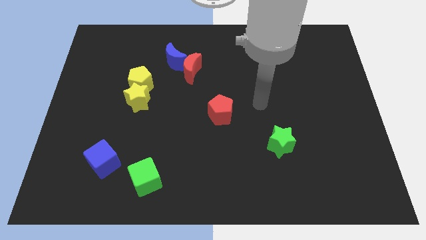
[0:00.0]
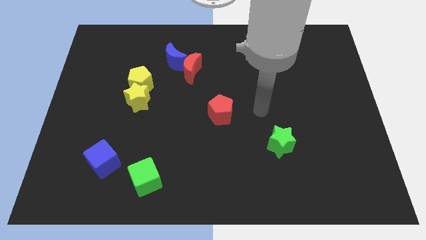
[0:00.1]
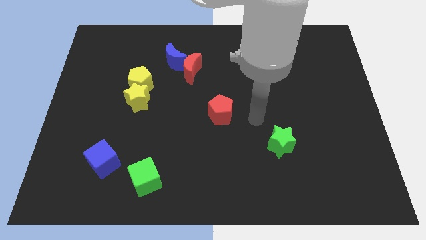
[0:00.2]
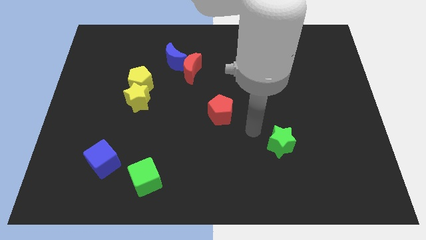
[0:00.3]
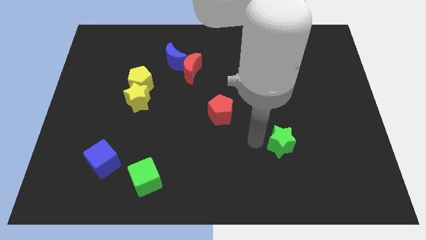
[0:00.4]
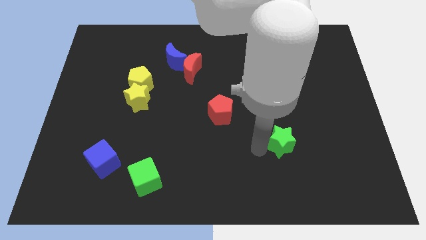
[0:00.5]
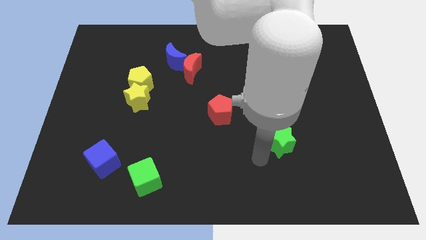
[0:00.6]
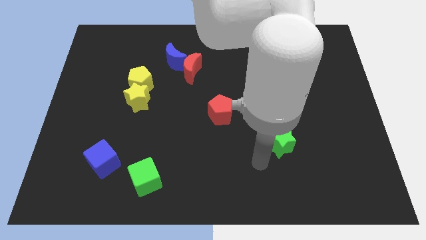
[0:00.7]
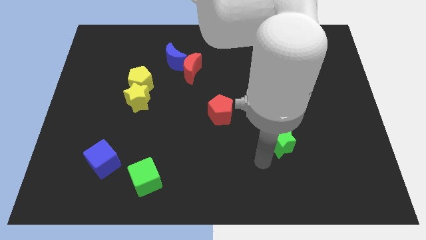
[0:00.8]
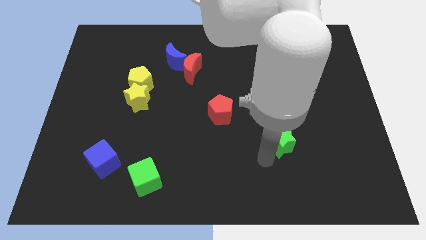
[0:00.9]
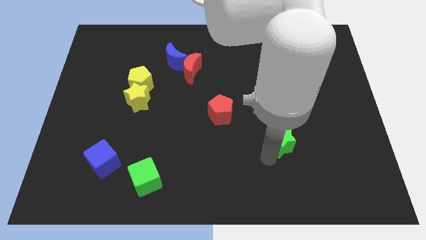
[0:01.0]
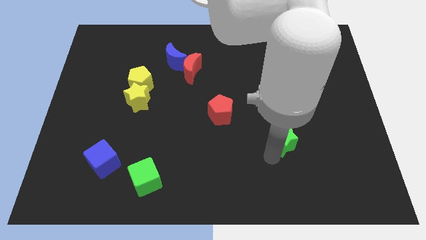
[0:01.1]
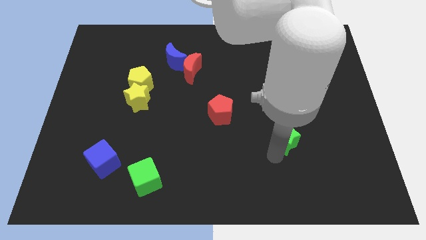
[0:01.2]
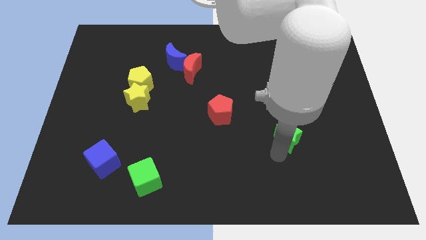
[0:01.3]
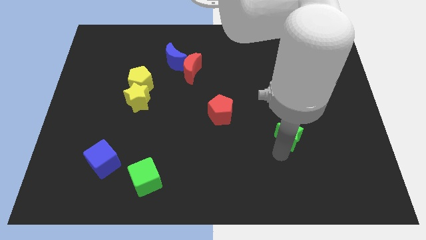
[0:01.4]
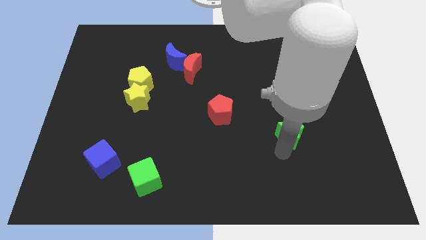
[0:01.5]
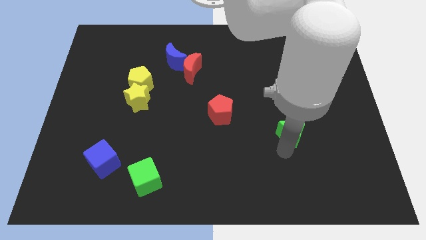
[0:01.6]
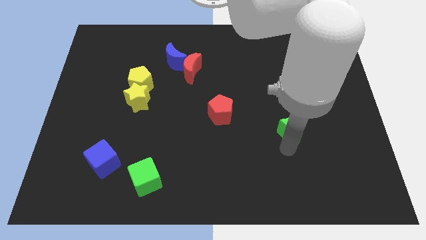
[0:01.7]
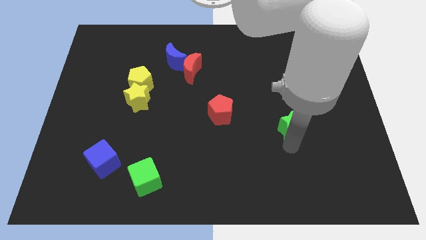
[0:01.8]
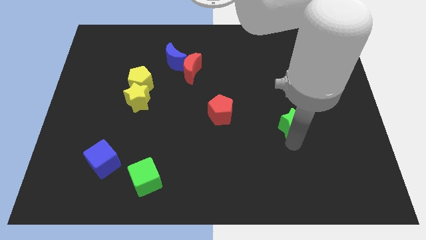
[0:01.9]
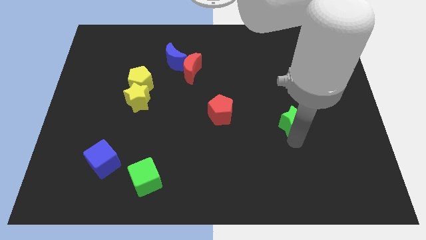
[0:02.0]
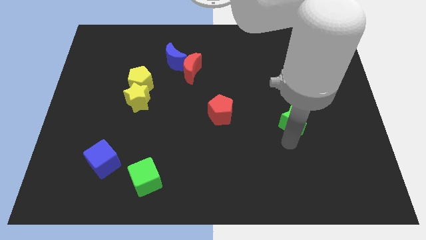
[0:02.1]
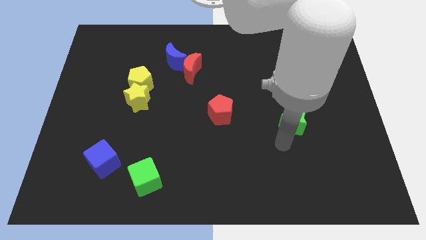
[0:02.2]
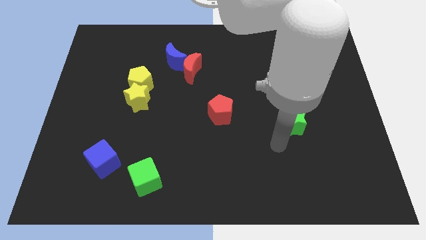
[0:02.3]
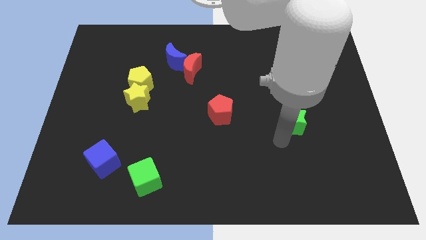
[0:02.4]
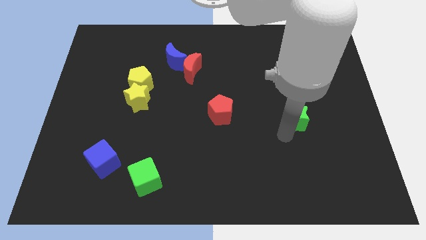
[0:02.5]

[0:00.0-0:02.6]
move the green star upwards and to the right diagonally somewhat

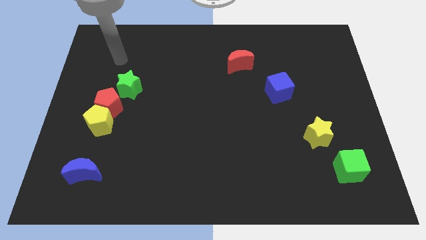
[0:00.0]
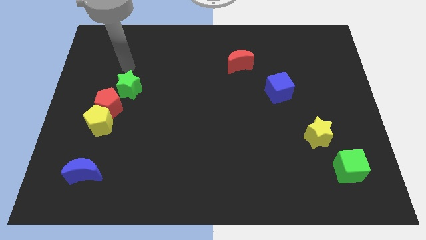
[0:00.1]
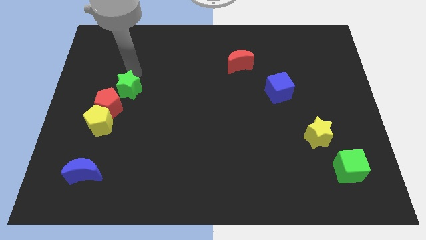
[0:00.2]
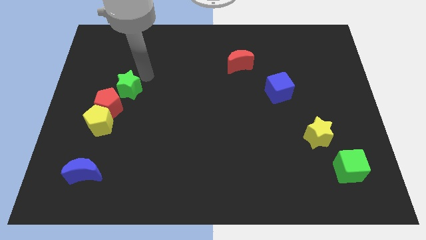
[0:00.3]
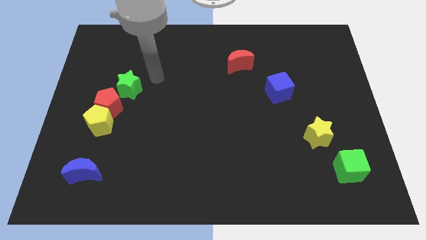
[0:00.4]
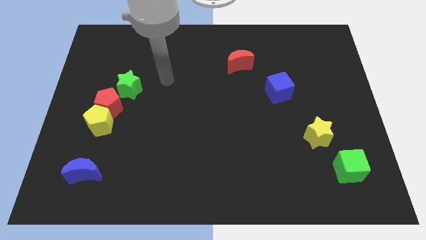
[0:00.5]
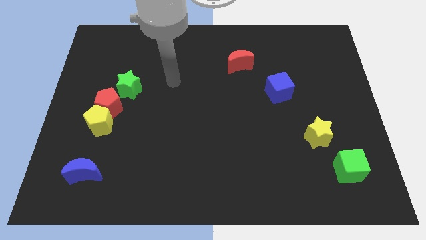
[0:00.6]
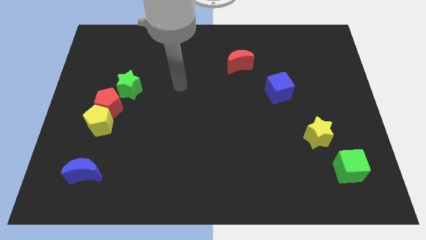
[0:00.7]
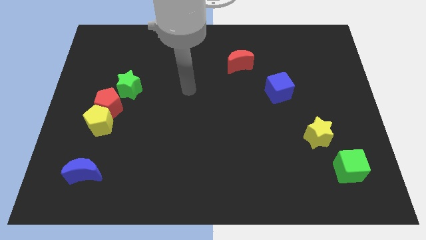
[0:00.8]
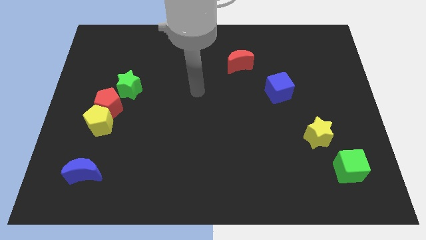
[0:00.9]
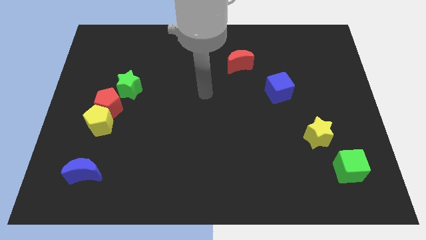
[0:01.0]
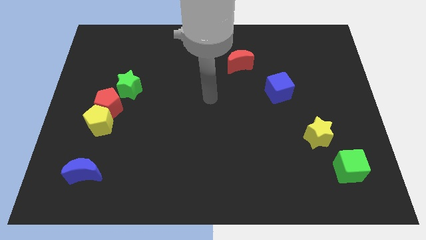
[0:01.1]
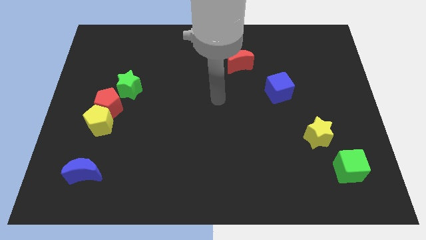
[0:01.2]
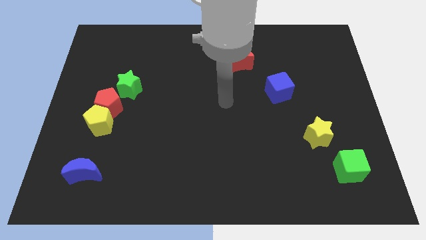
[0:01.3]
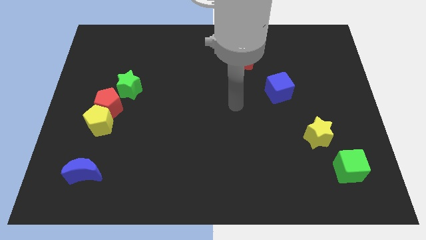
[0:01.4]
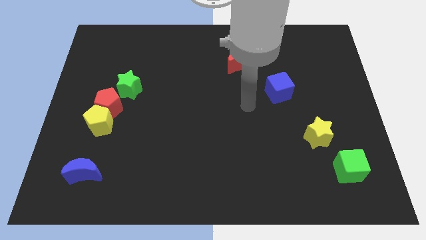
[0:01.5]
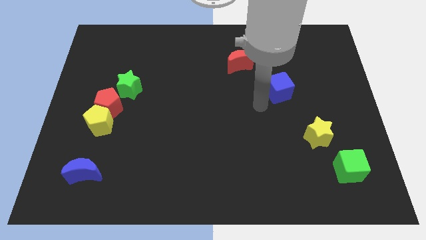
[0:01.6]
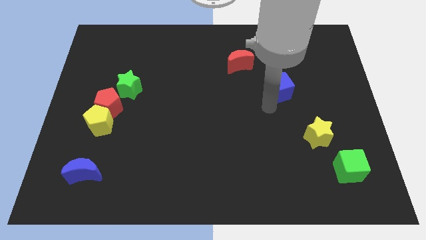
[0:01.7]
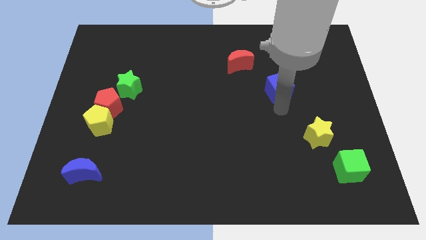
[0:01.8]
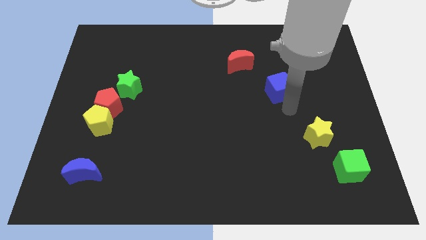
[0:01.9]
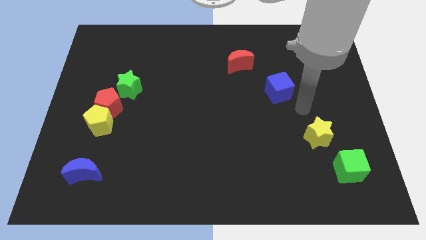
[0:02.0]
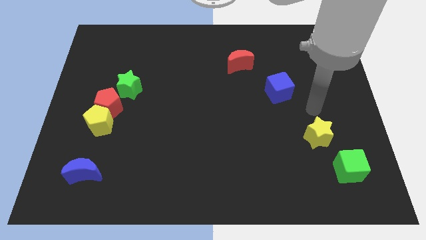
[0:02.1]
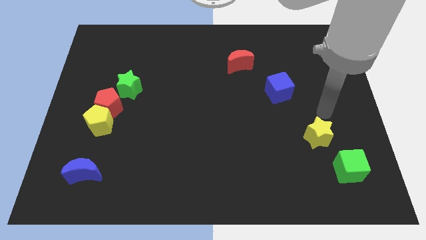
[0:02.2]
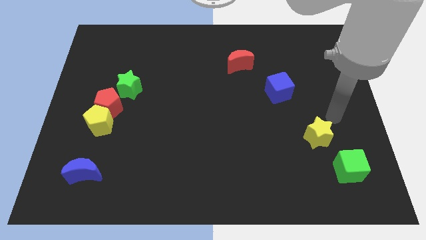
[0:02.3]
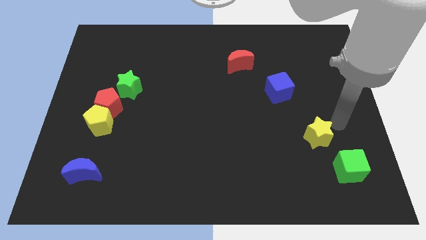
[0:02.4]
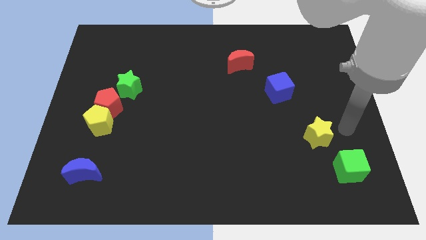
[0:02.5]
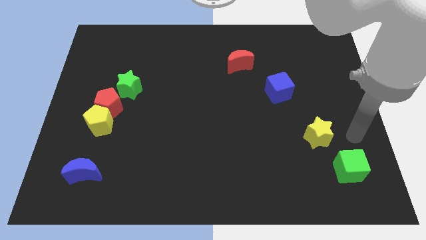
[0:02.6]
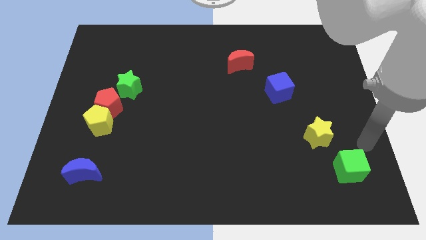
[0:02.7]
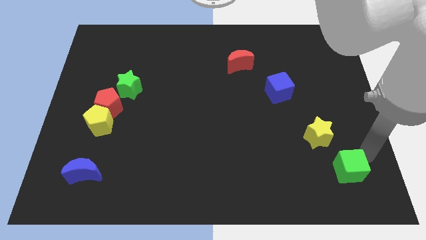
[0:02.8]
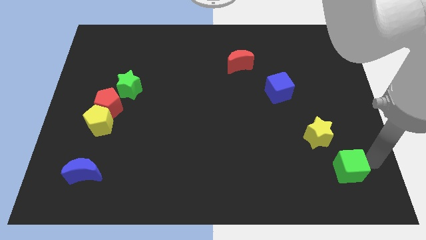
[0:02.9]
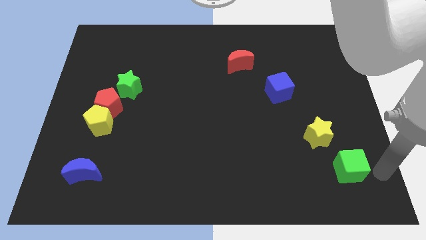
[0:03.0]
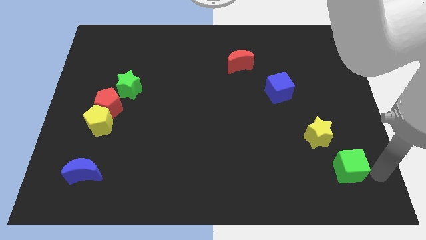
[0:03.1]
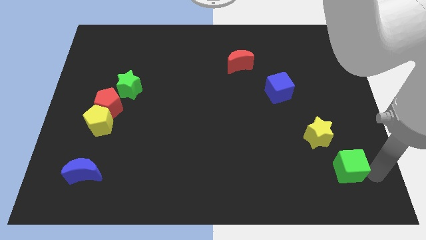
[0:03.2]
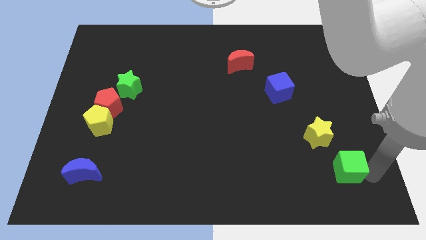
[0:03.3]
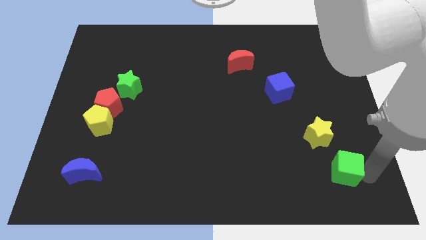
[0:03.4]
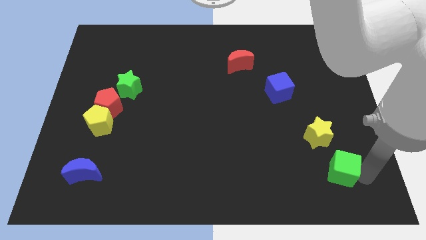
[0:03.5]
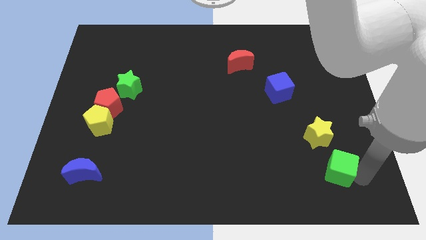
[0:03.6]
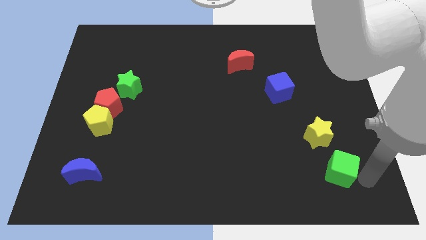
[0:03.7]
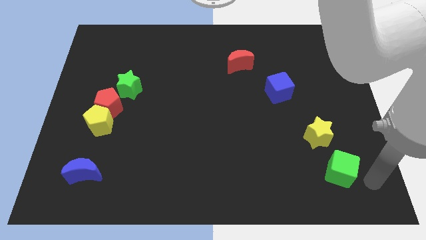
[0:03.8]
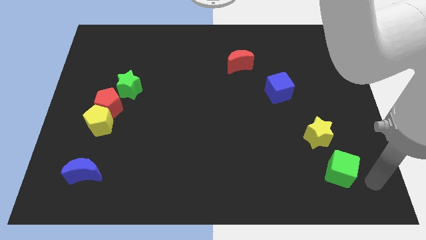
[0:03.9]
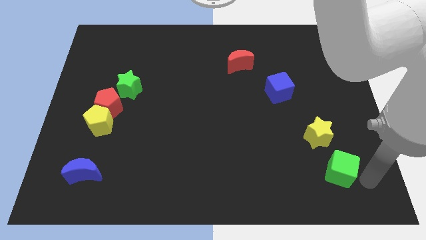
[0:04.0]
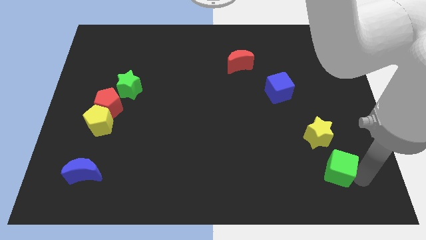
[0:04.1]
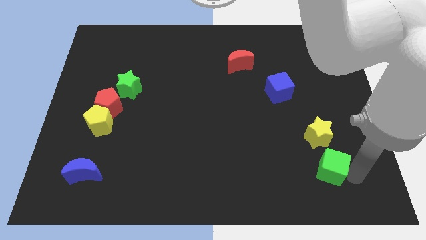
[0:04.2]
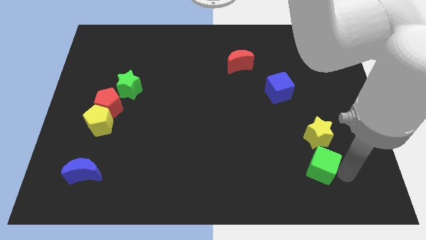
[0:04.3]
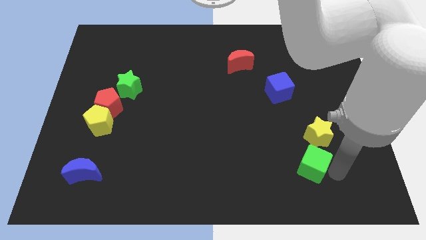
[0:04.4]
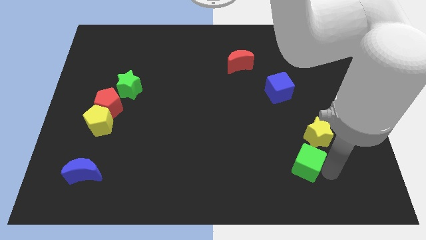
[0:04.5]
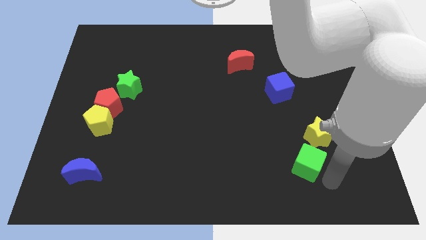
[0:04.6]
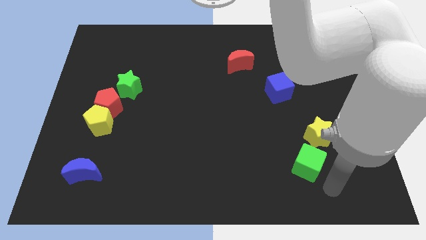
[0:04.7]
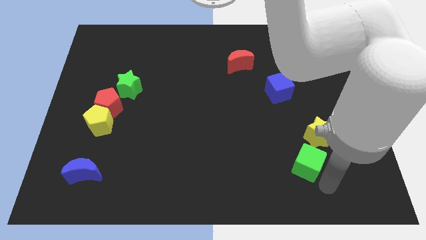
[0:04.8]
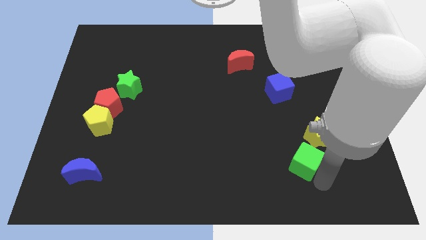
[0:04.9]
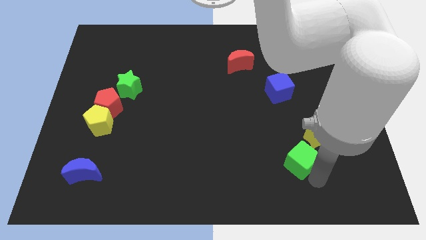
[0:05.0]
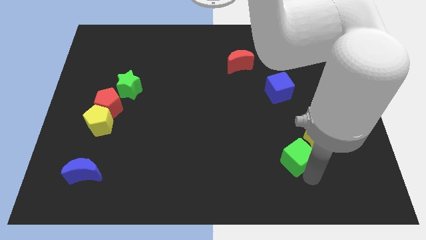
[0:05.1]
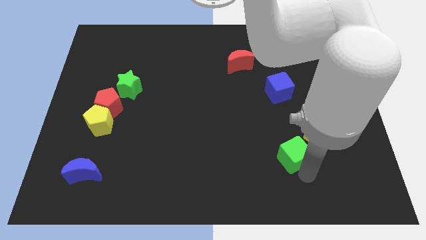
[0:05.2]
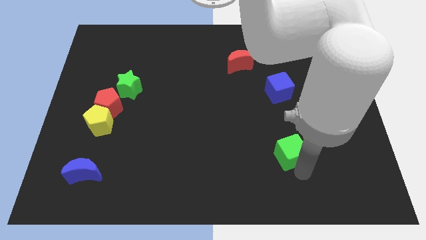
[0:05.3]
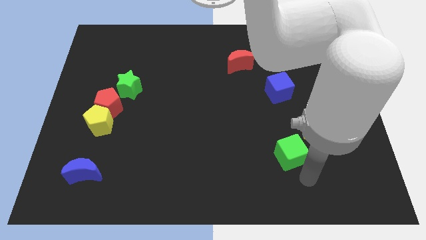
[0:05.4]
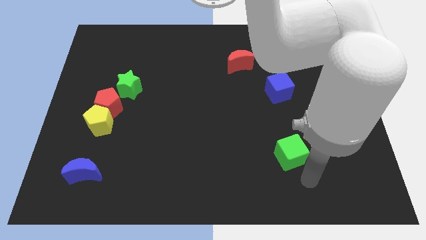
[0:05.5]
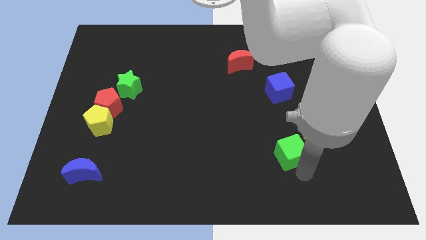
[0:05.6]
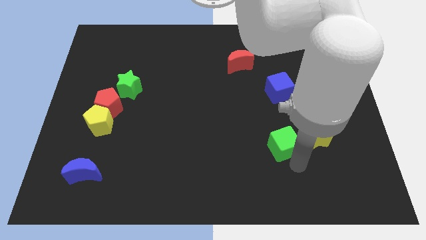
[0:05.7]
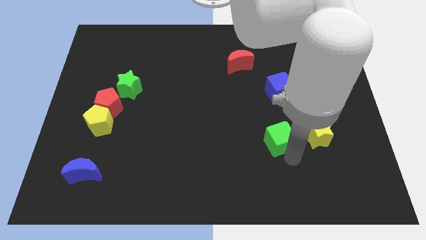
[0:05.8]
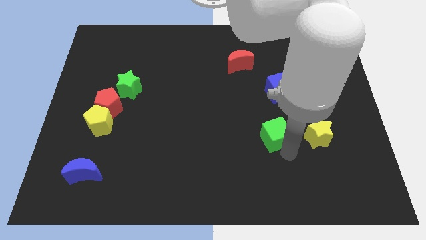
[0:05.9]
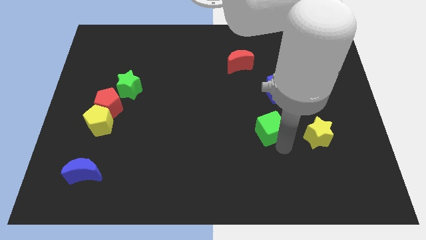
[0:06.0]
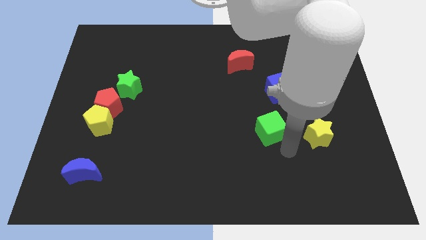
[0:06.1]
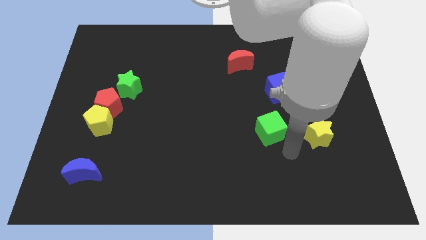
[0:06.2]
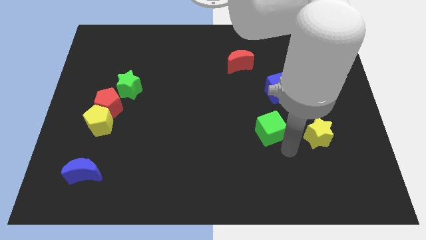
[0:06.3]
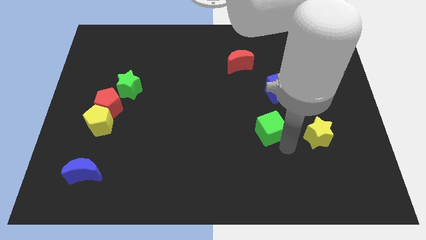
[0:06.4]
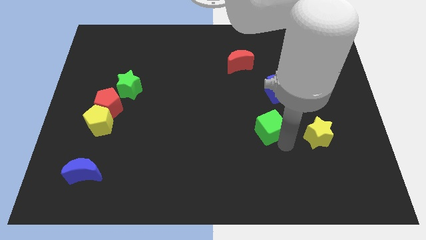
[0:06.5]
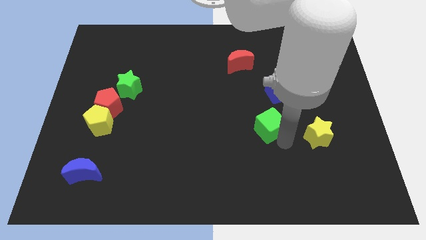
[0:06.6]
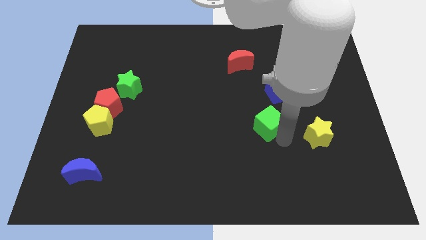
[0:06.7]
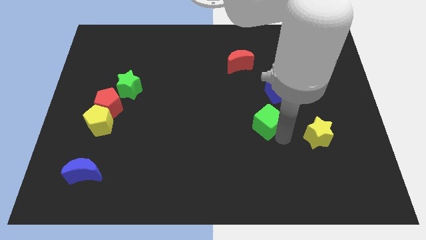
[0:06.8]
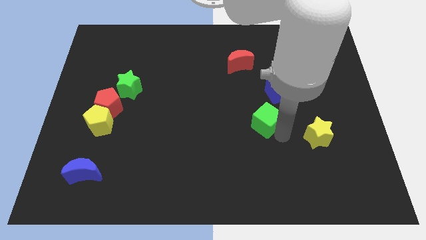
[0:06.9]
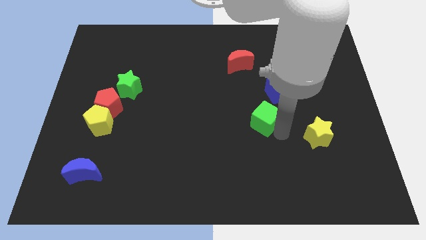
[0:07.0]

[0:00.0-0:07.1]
push the green cube upwards and left
